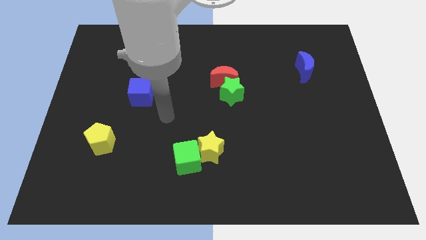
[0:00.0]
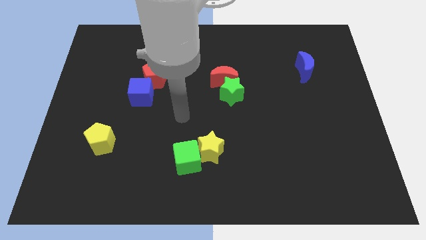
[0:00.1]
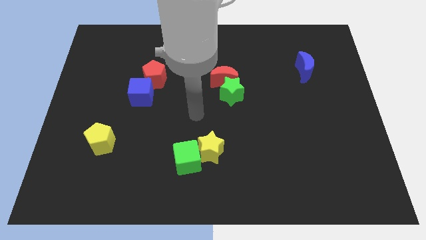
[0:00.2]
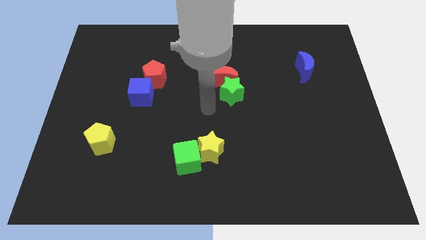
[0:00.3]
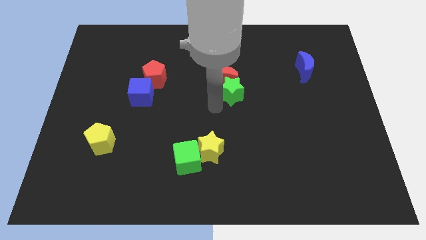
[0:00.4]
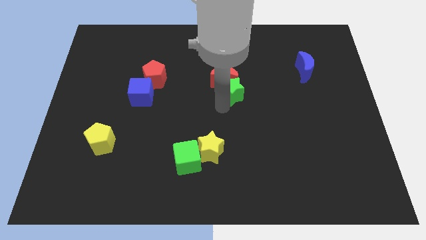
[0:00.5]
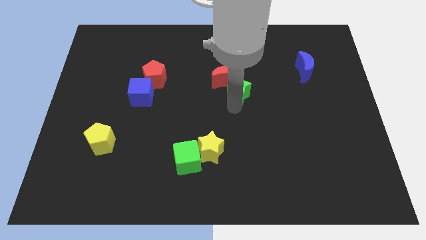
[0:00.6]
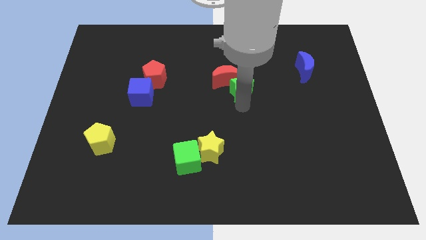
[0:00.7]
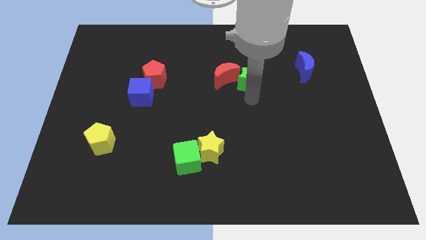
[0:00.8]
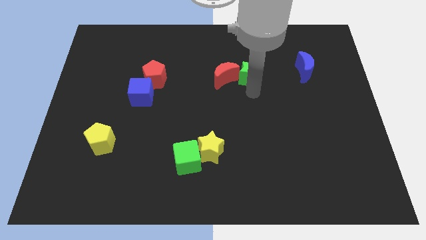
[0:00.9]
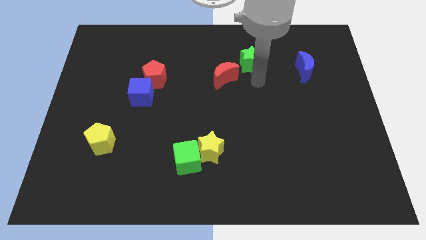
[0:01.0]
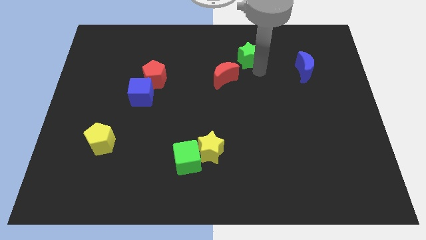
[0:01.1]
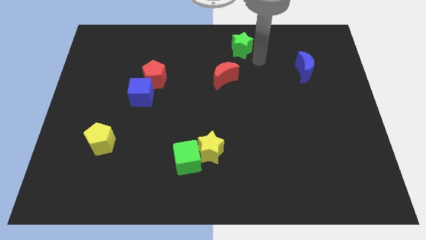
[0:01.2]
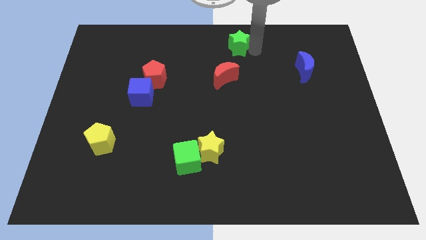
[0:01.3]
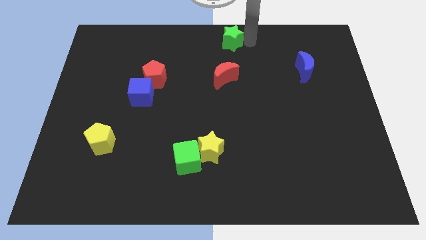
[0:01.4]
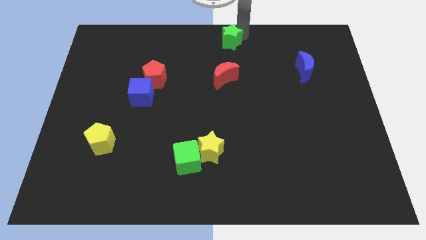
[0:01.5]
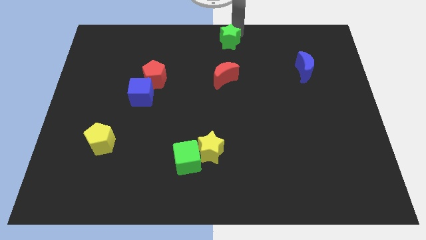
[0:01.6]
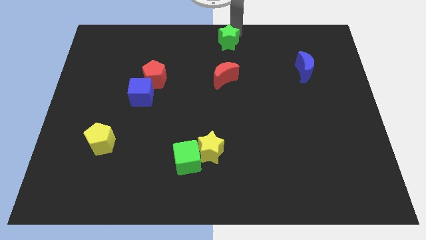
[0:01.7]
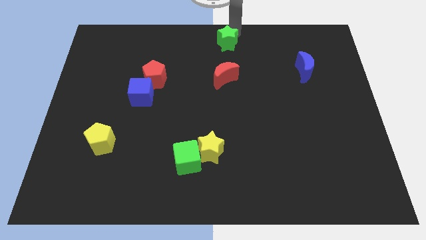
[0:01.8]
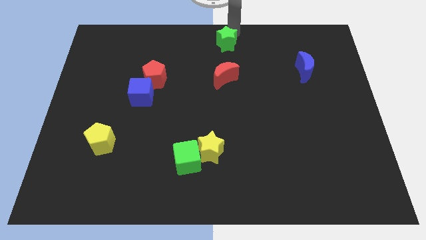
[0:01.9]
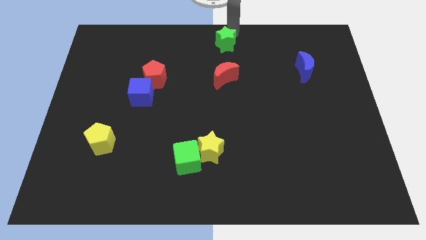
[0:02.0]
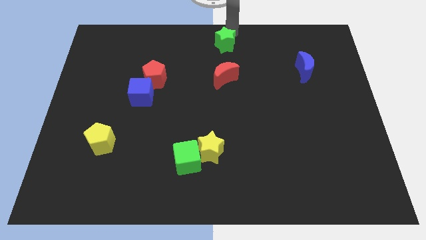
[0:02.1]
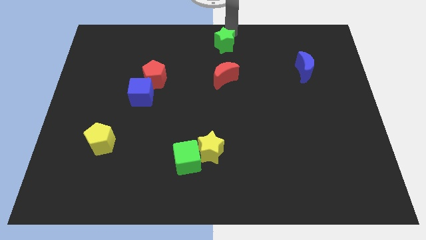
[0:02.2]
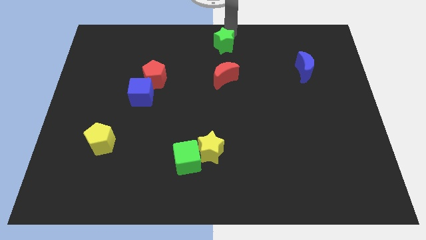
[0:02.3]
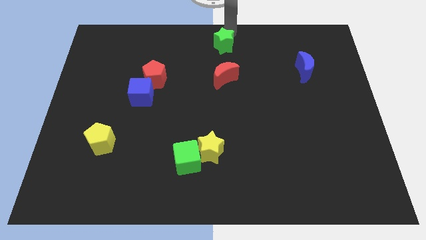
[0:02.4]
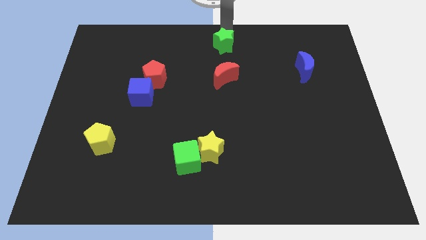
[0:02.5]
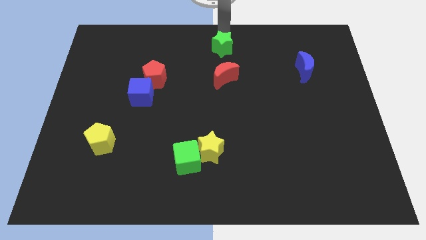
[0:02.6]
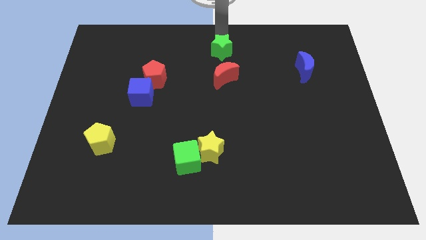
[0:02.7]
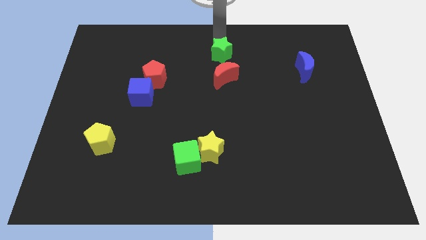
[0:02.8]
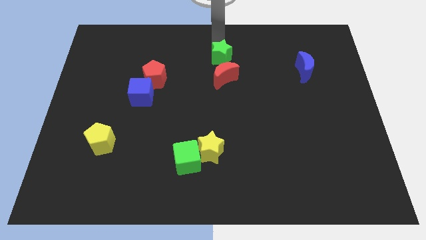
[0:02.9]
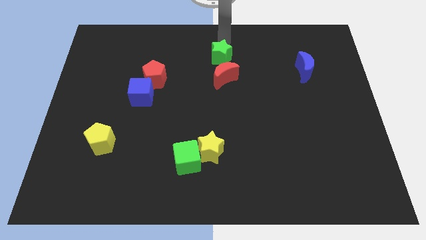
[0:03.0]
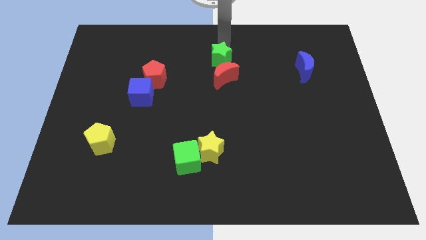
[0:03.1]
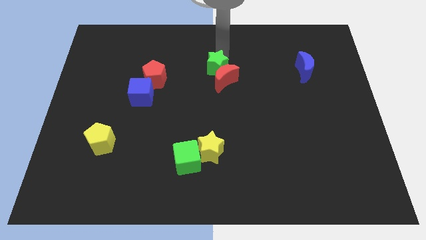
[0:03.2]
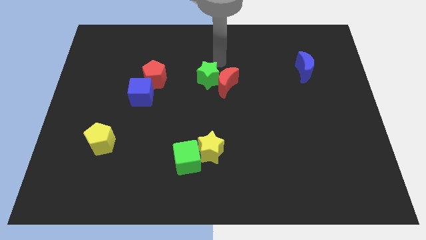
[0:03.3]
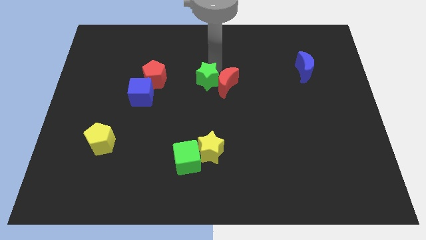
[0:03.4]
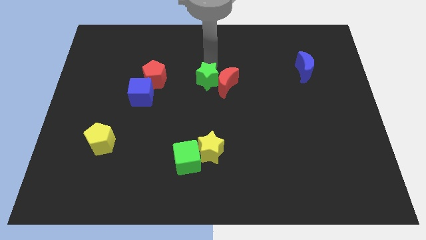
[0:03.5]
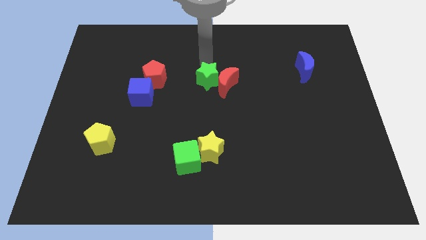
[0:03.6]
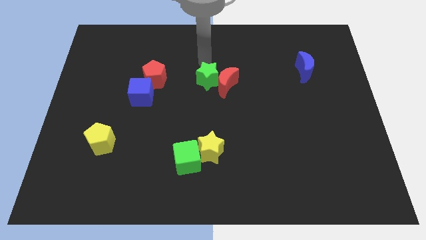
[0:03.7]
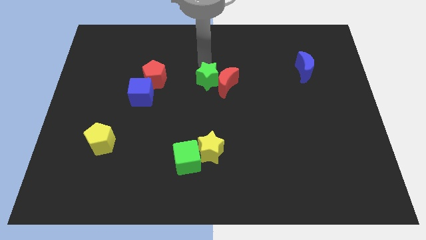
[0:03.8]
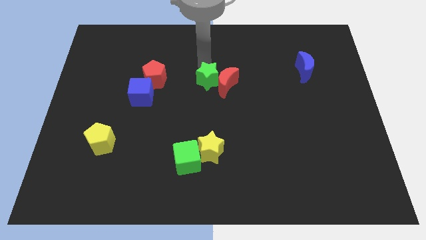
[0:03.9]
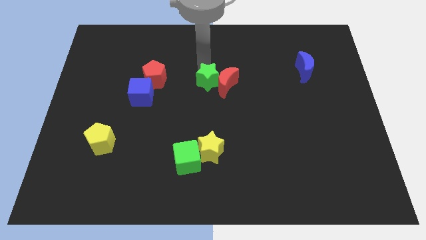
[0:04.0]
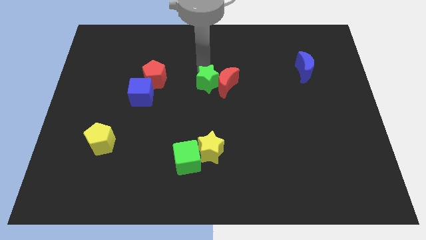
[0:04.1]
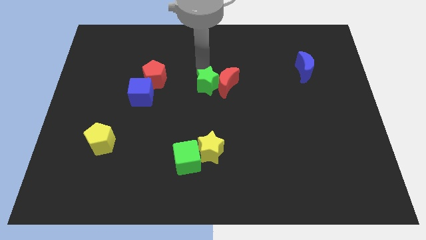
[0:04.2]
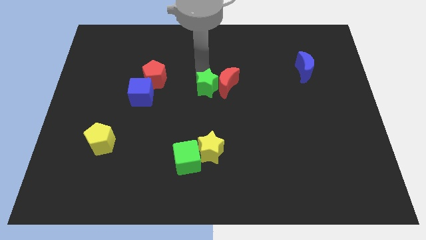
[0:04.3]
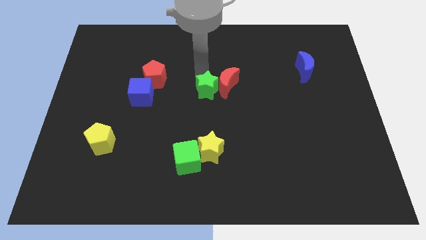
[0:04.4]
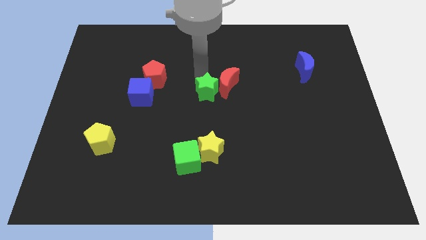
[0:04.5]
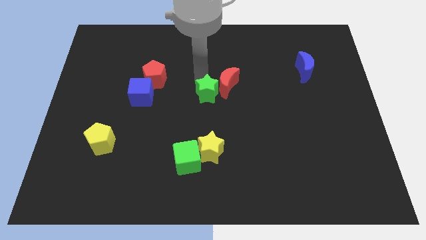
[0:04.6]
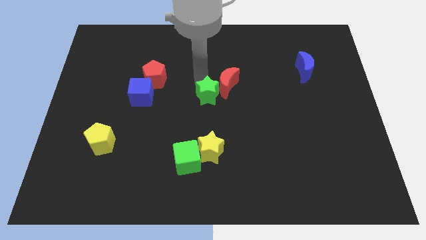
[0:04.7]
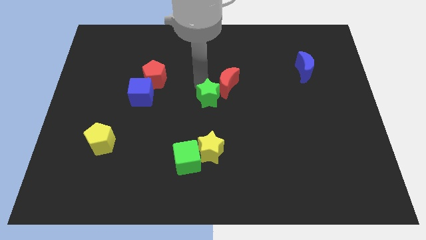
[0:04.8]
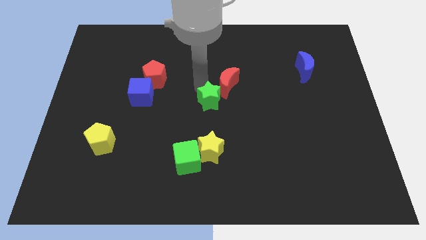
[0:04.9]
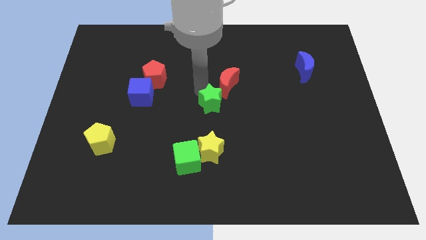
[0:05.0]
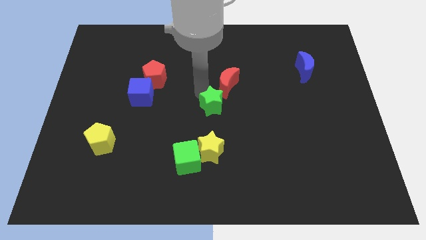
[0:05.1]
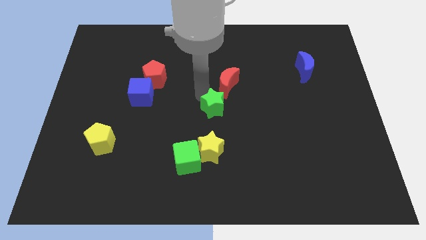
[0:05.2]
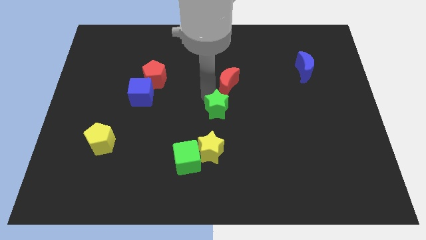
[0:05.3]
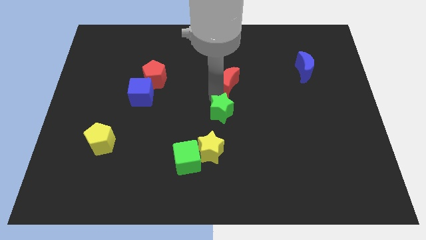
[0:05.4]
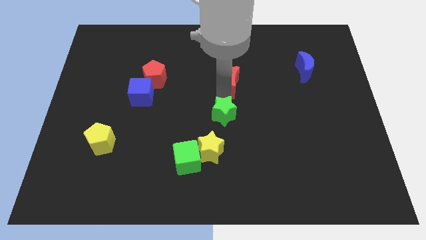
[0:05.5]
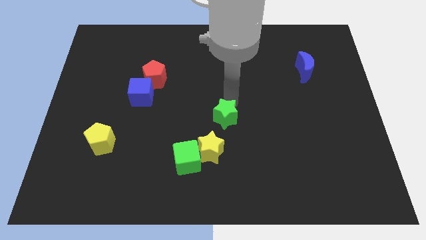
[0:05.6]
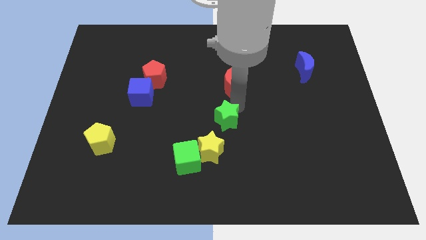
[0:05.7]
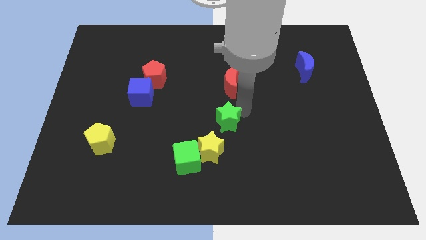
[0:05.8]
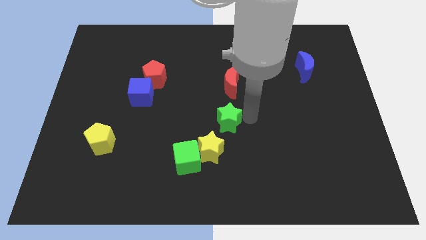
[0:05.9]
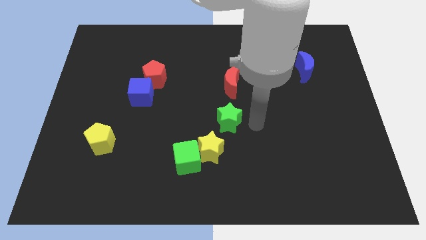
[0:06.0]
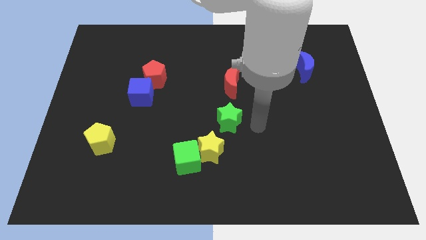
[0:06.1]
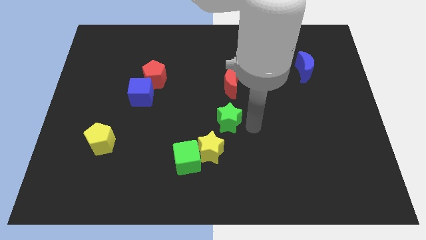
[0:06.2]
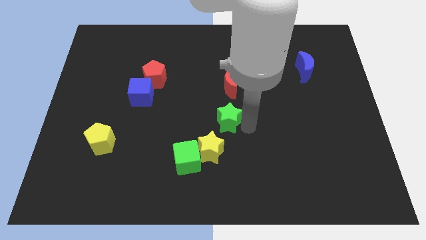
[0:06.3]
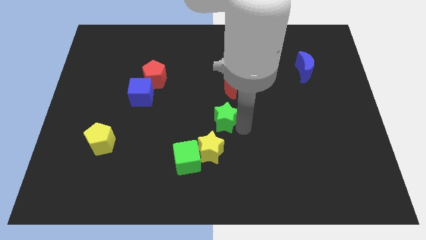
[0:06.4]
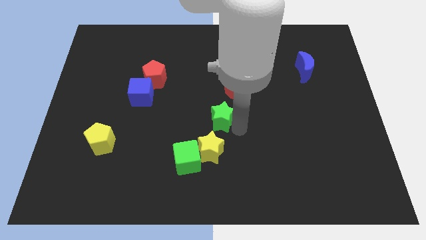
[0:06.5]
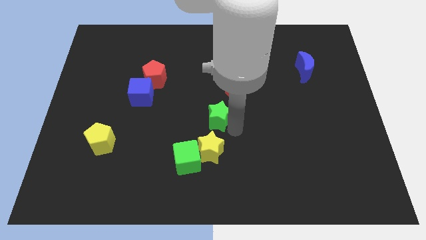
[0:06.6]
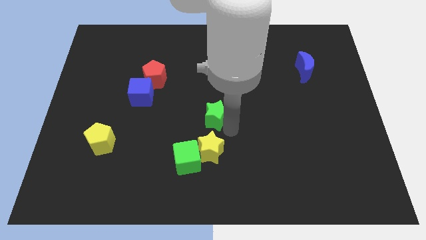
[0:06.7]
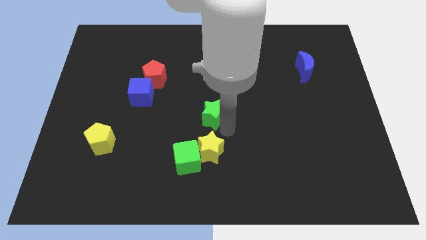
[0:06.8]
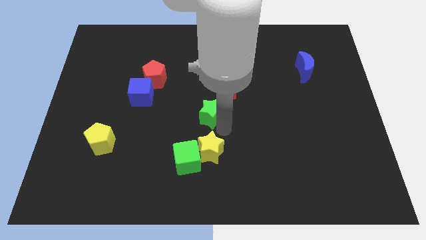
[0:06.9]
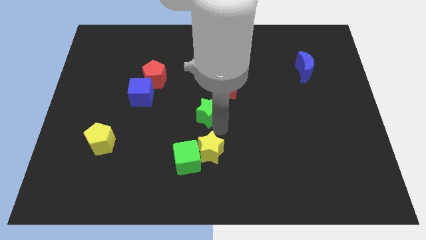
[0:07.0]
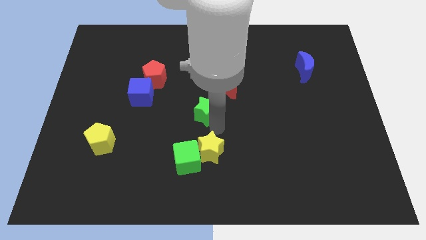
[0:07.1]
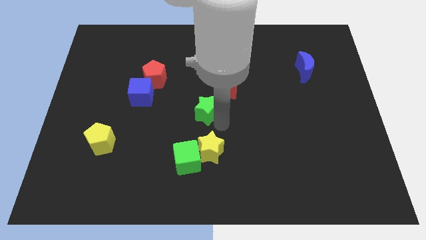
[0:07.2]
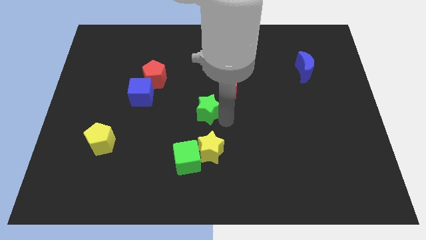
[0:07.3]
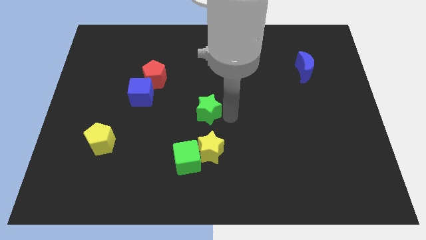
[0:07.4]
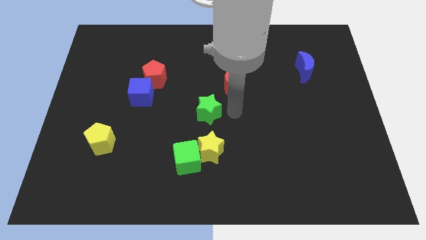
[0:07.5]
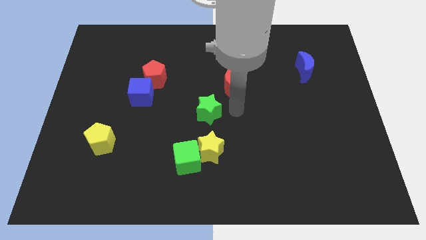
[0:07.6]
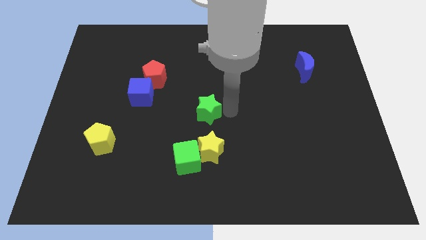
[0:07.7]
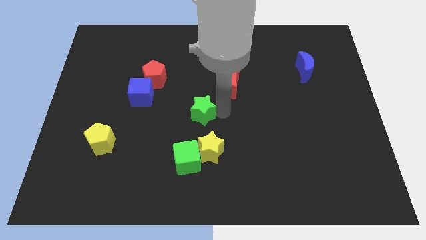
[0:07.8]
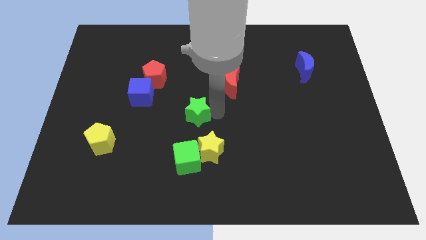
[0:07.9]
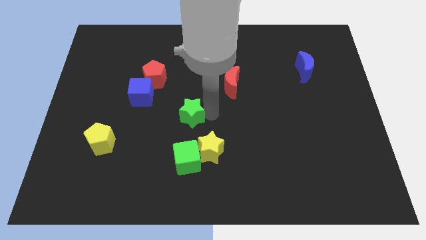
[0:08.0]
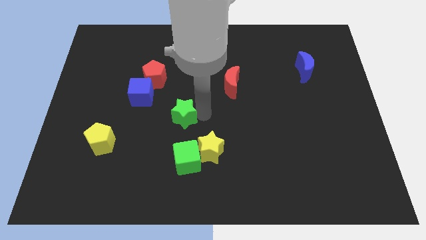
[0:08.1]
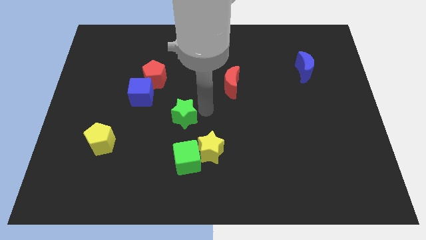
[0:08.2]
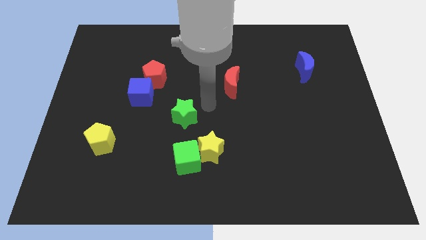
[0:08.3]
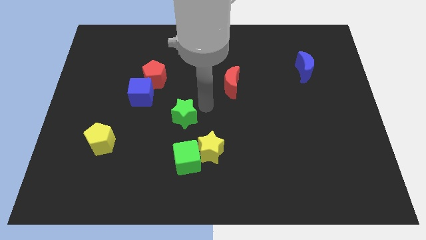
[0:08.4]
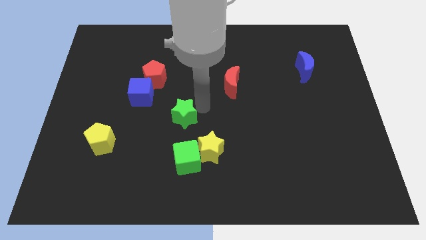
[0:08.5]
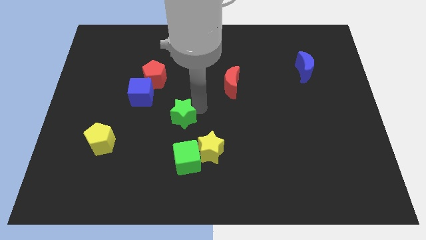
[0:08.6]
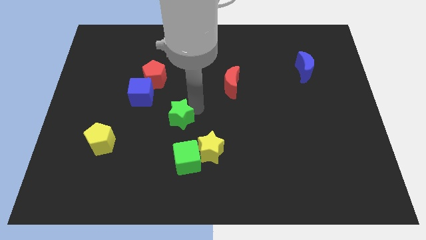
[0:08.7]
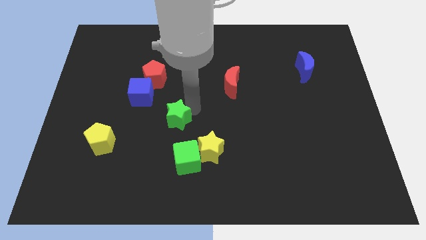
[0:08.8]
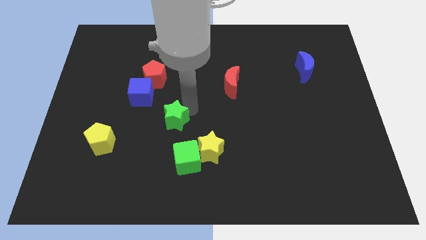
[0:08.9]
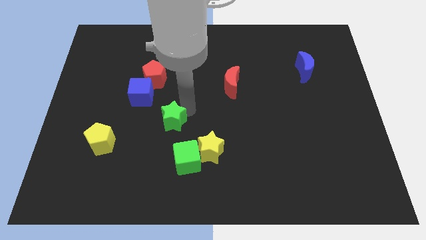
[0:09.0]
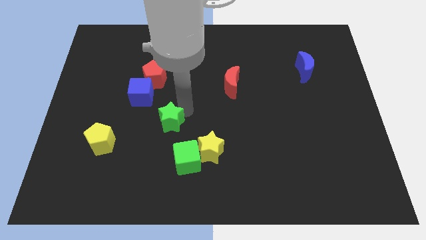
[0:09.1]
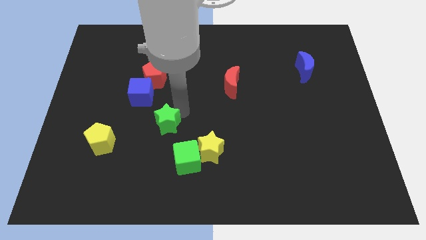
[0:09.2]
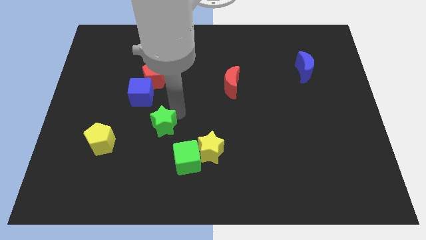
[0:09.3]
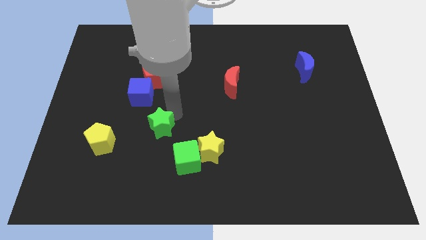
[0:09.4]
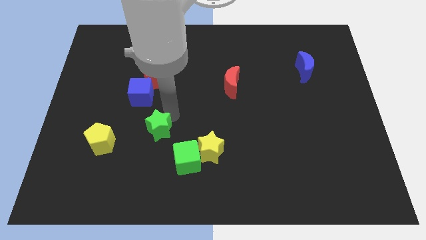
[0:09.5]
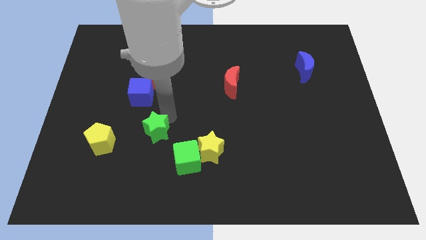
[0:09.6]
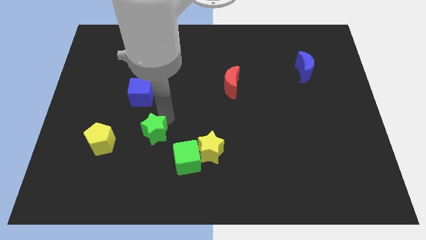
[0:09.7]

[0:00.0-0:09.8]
move the green star downwards and left diagonally
